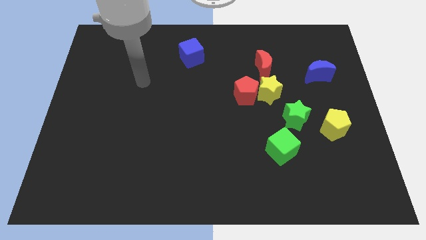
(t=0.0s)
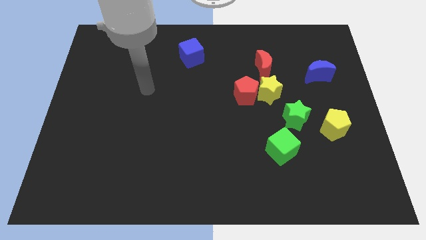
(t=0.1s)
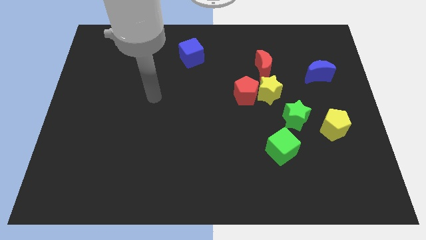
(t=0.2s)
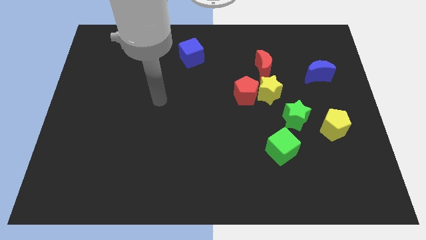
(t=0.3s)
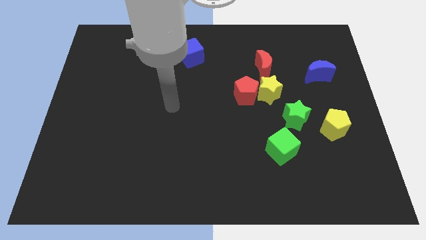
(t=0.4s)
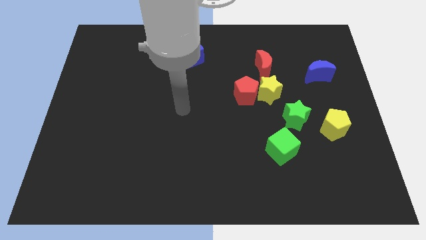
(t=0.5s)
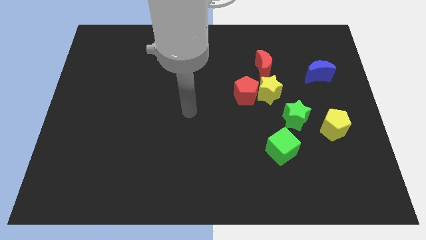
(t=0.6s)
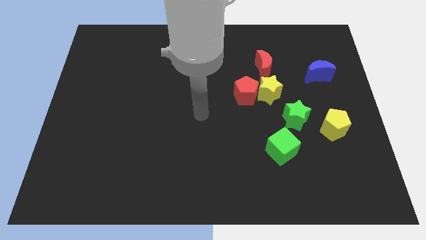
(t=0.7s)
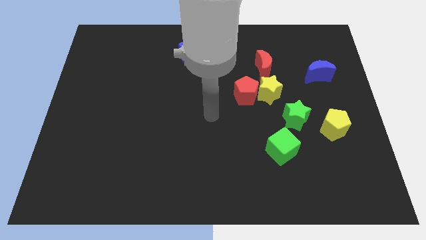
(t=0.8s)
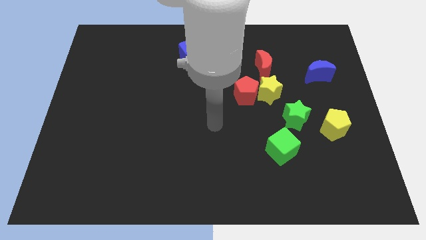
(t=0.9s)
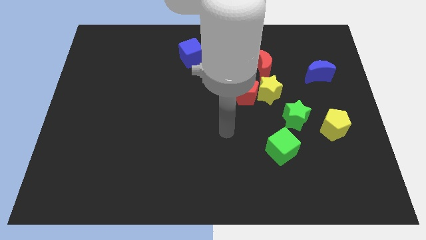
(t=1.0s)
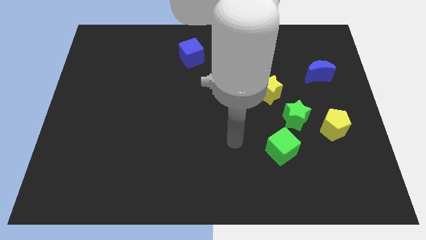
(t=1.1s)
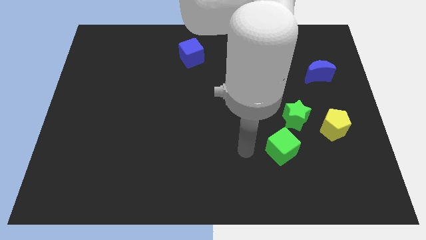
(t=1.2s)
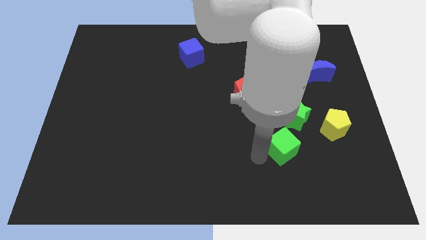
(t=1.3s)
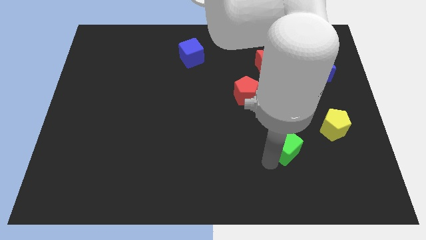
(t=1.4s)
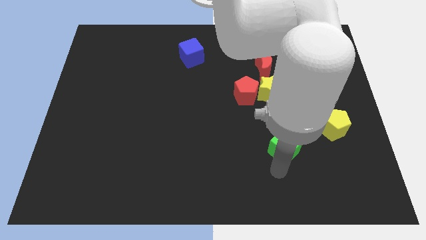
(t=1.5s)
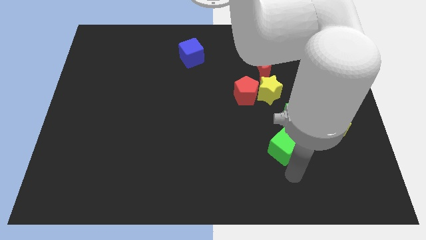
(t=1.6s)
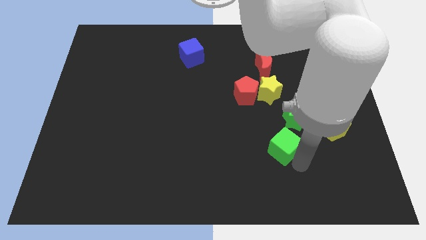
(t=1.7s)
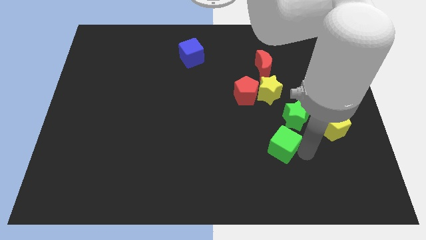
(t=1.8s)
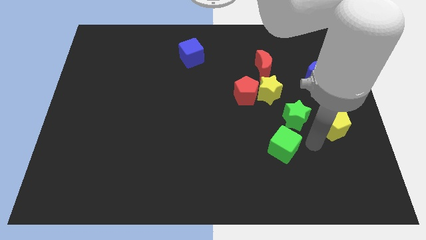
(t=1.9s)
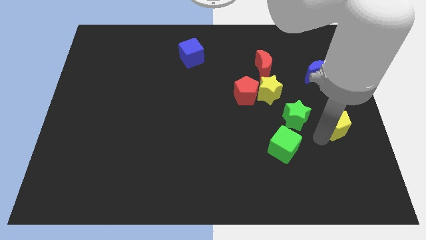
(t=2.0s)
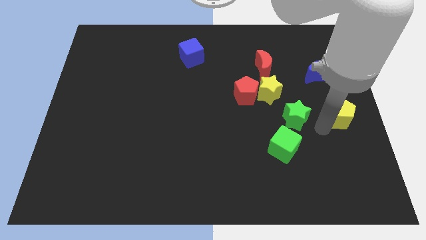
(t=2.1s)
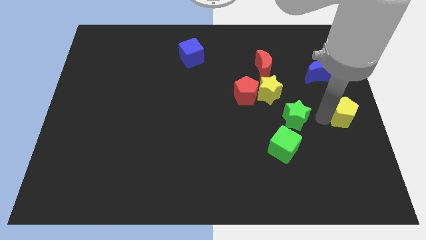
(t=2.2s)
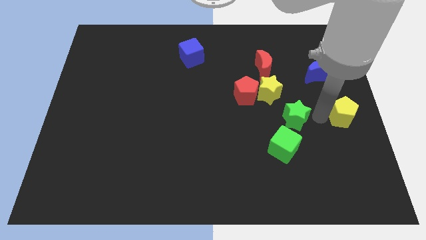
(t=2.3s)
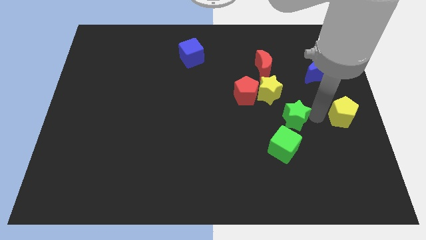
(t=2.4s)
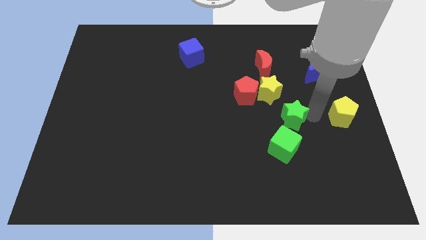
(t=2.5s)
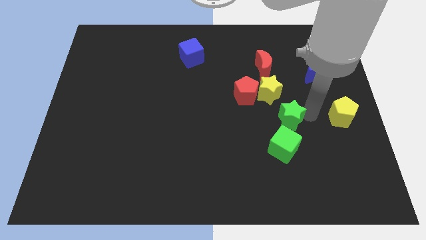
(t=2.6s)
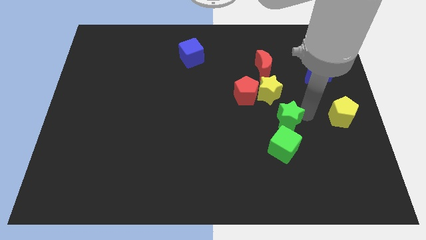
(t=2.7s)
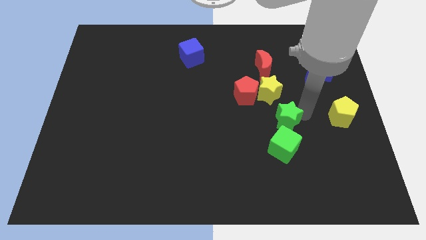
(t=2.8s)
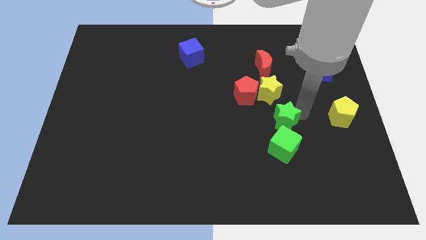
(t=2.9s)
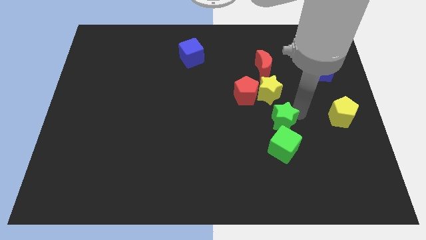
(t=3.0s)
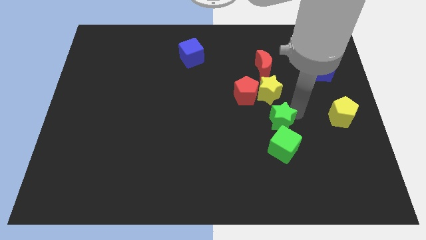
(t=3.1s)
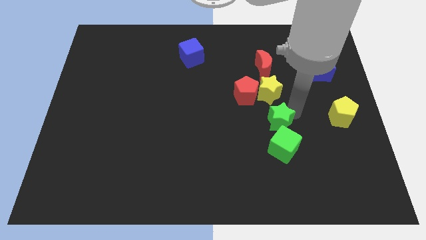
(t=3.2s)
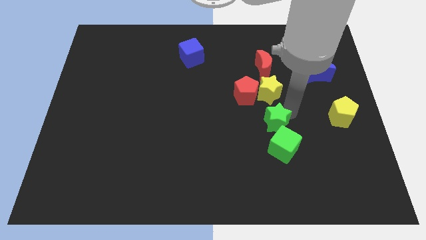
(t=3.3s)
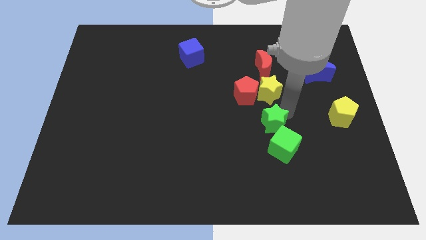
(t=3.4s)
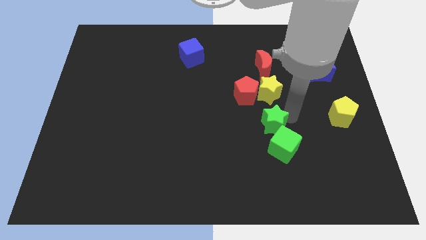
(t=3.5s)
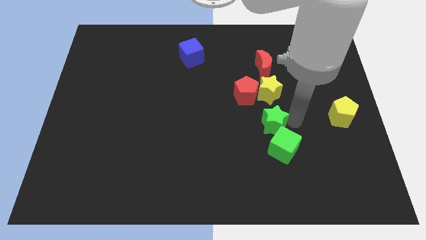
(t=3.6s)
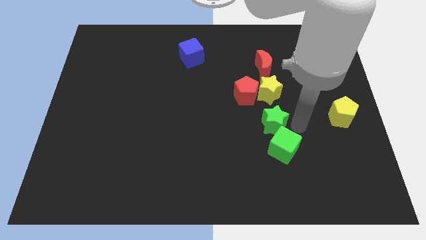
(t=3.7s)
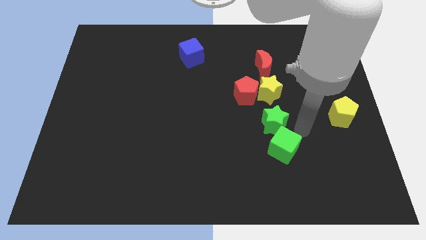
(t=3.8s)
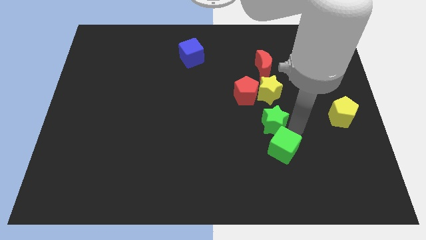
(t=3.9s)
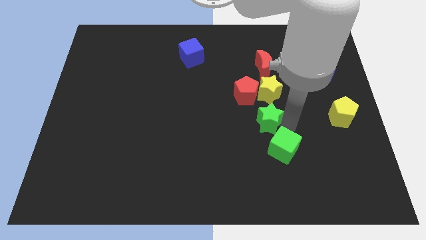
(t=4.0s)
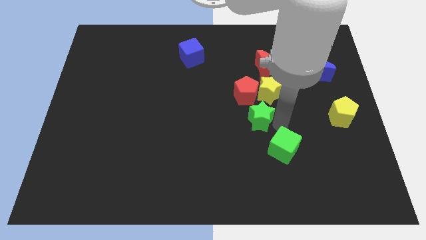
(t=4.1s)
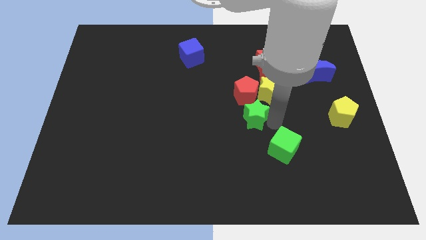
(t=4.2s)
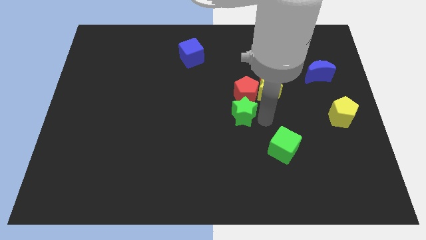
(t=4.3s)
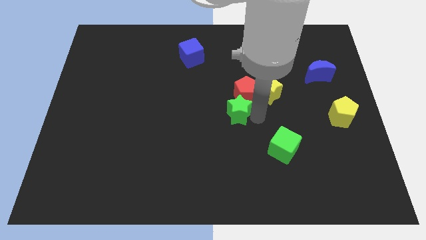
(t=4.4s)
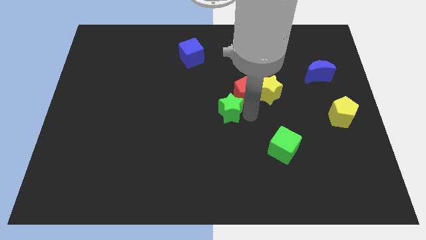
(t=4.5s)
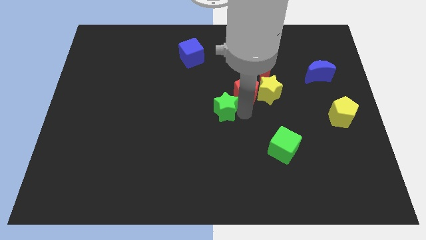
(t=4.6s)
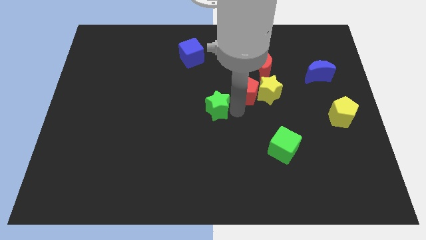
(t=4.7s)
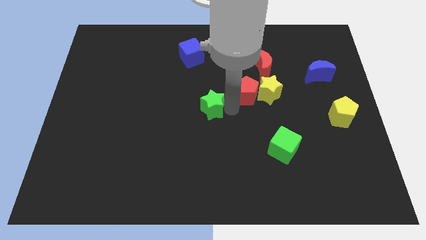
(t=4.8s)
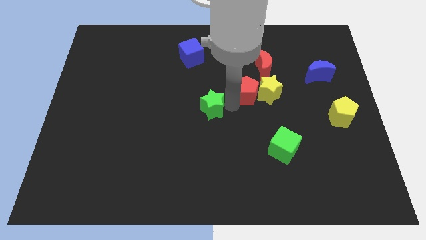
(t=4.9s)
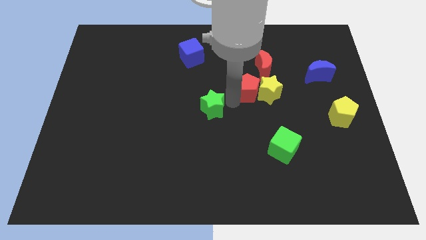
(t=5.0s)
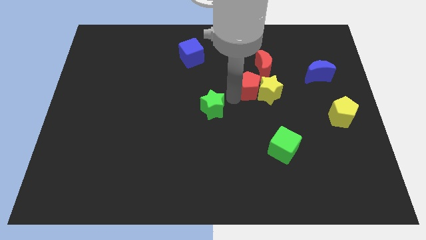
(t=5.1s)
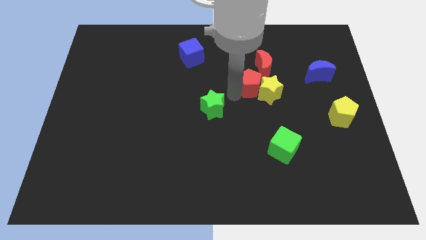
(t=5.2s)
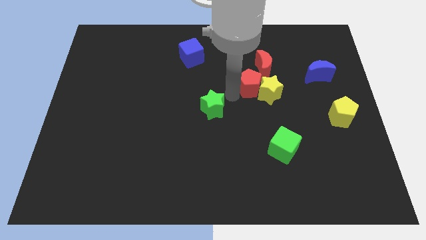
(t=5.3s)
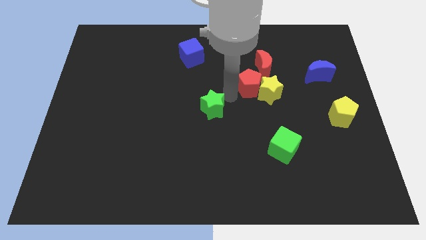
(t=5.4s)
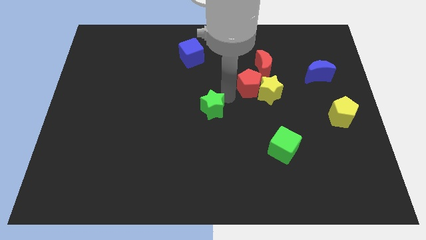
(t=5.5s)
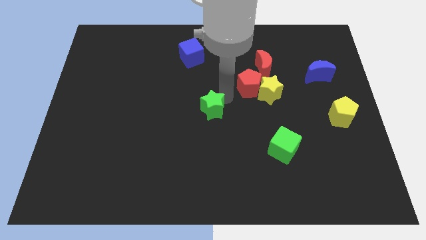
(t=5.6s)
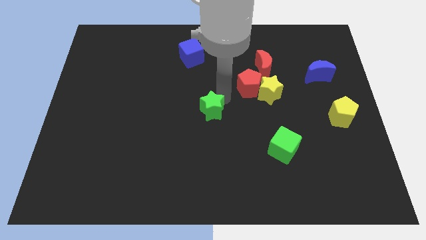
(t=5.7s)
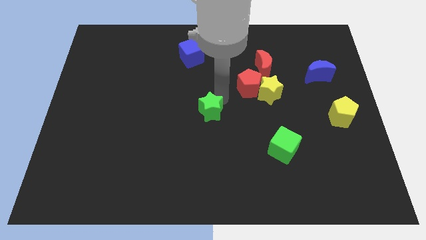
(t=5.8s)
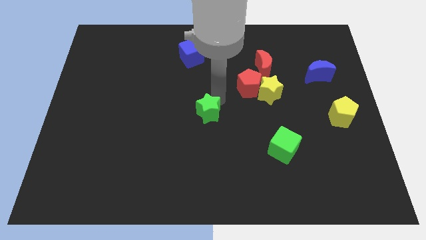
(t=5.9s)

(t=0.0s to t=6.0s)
push the green star left

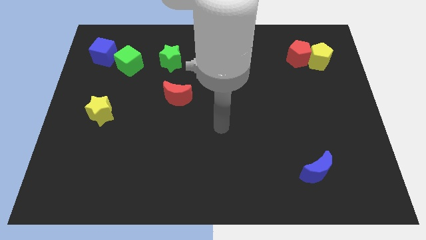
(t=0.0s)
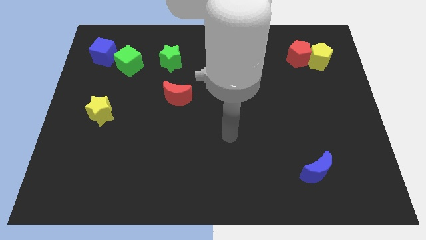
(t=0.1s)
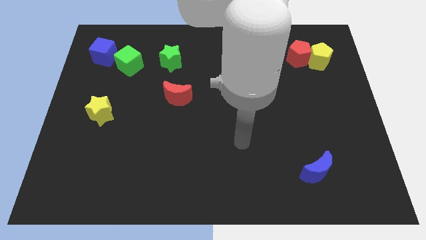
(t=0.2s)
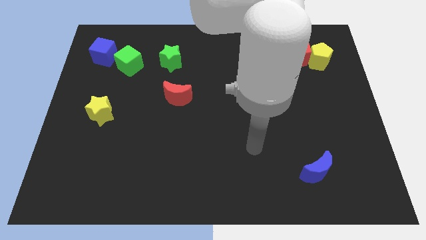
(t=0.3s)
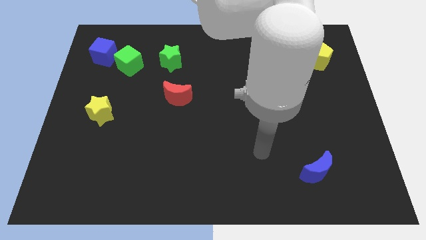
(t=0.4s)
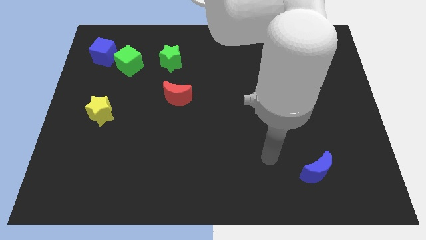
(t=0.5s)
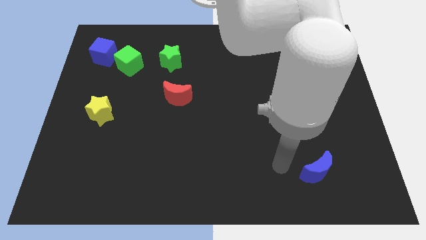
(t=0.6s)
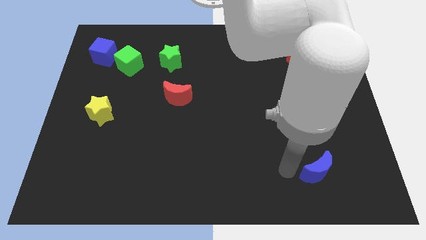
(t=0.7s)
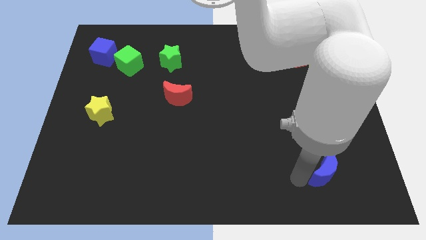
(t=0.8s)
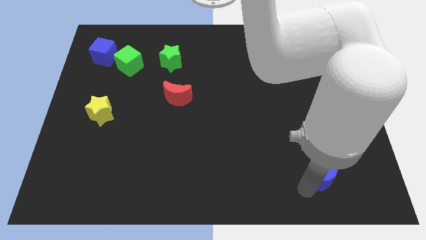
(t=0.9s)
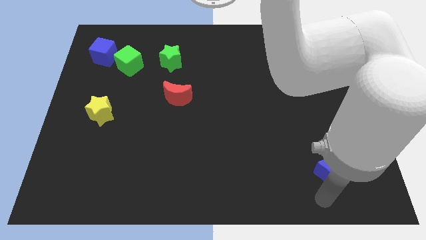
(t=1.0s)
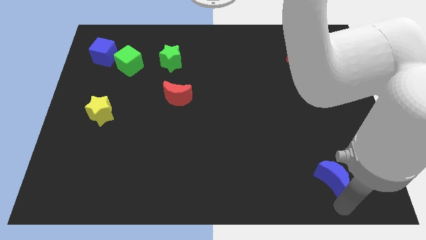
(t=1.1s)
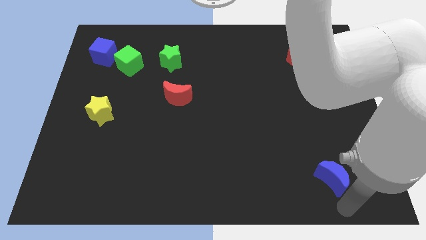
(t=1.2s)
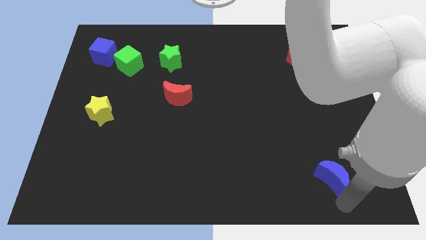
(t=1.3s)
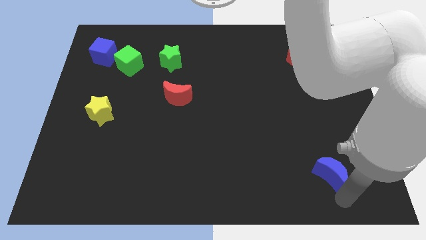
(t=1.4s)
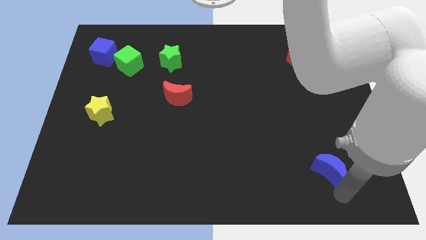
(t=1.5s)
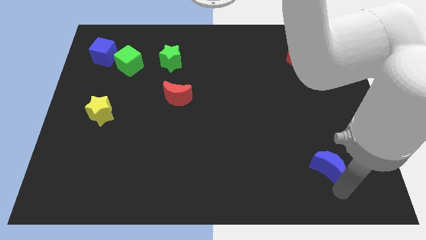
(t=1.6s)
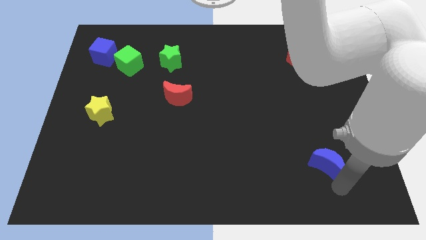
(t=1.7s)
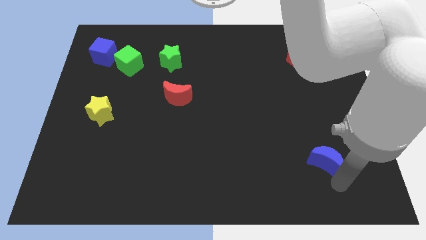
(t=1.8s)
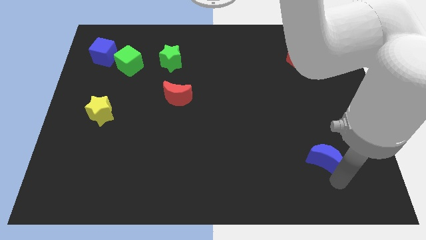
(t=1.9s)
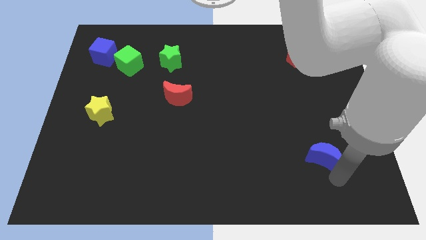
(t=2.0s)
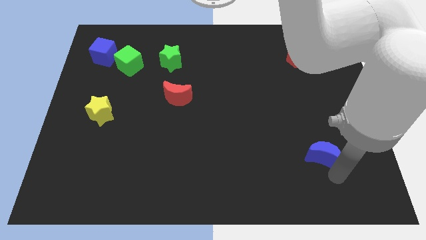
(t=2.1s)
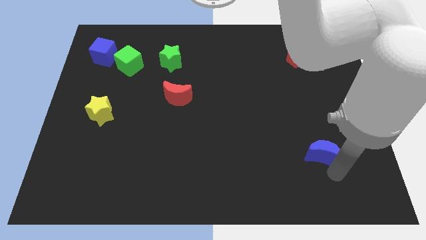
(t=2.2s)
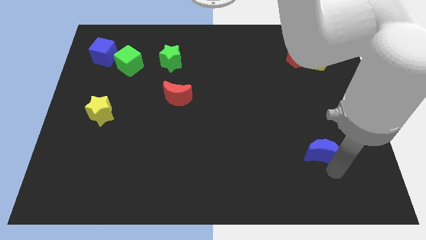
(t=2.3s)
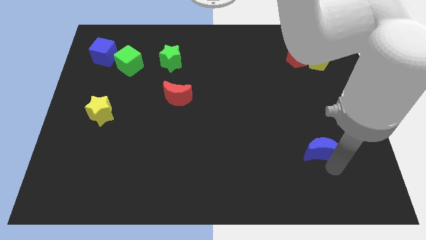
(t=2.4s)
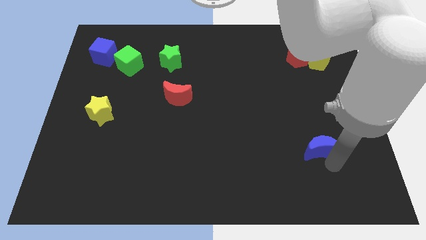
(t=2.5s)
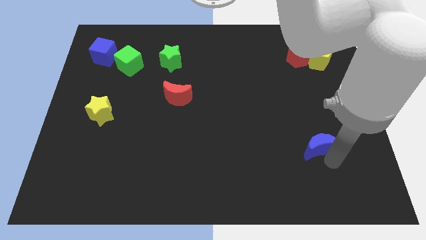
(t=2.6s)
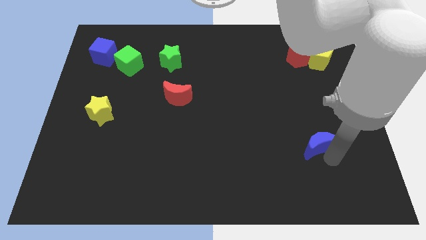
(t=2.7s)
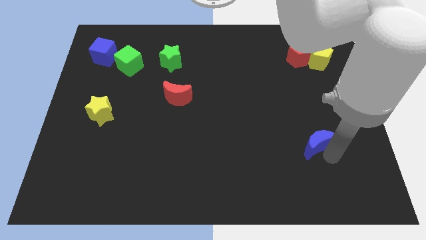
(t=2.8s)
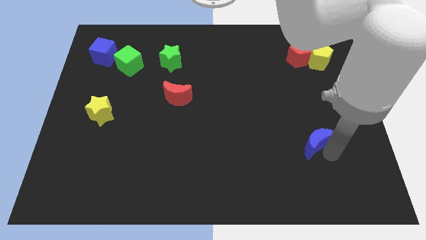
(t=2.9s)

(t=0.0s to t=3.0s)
slightly slide the blue moon upwards
